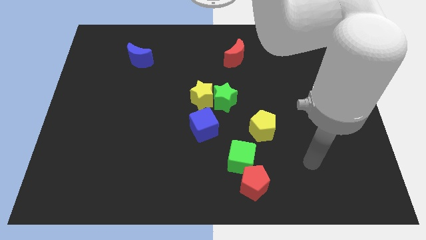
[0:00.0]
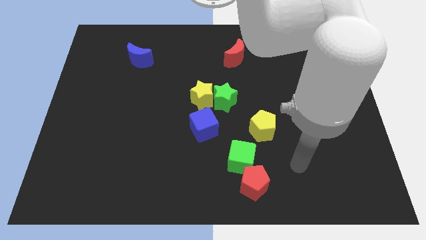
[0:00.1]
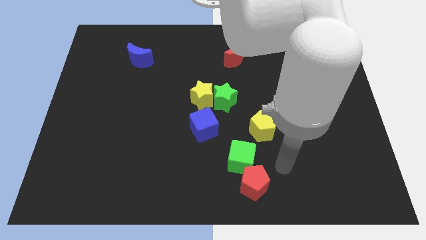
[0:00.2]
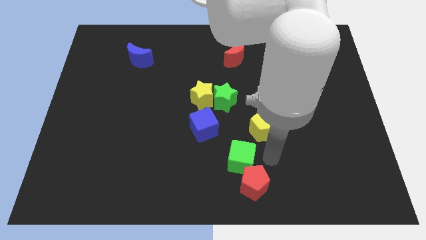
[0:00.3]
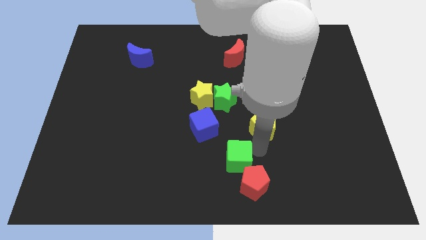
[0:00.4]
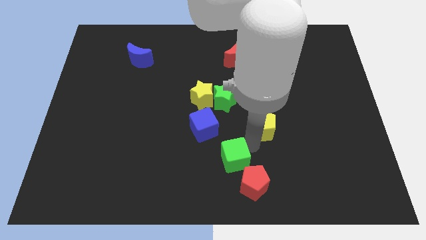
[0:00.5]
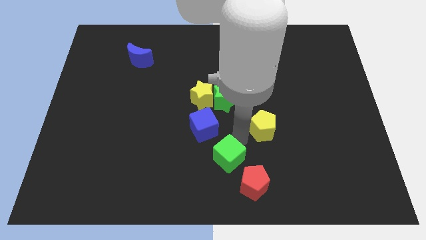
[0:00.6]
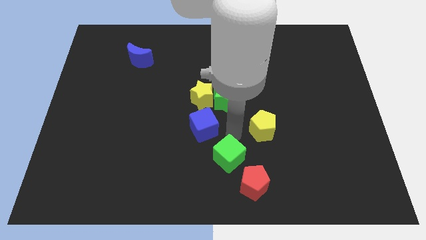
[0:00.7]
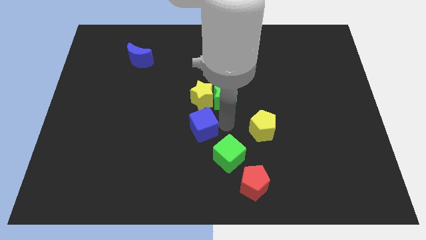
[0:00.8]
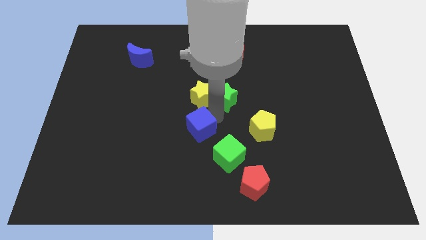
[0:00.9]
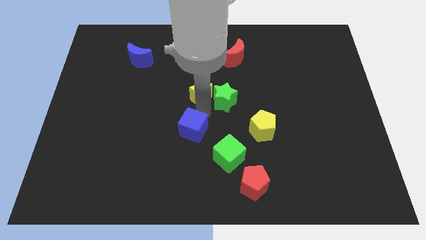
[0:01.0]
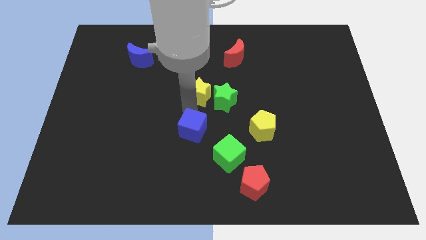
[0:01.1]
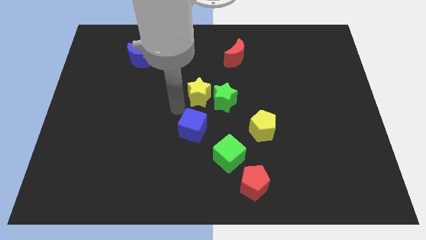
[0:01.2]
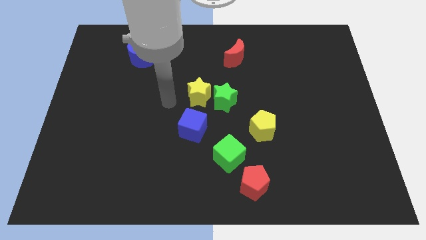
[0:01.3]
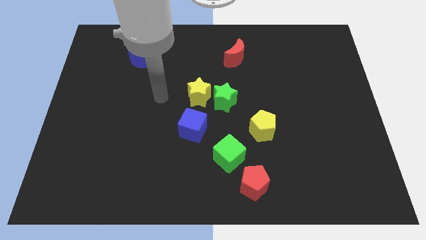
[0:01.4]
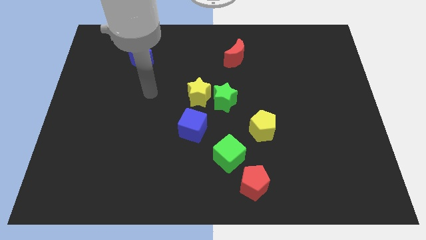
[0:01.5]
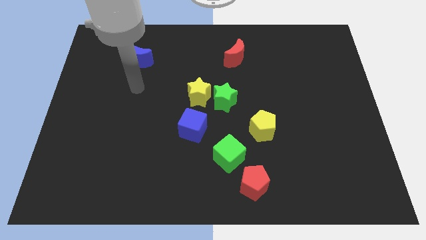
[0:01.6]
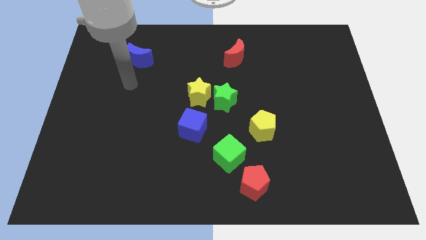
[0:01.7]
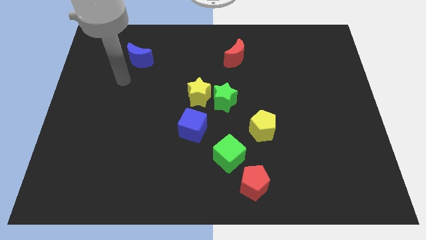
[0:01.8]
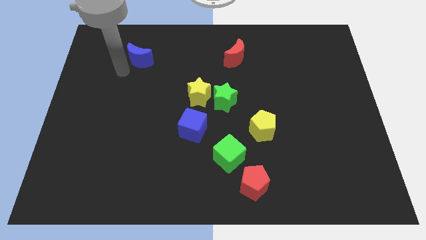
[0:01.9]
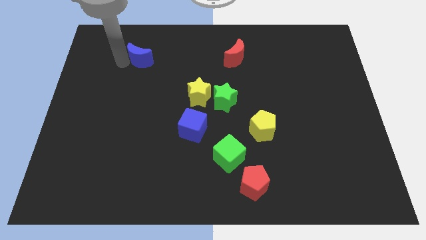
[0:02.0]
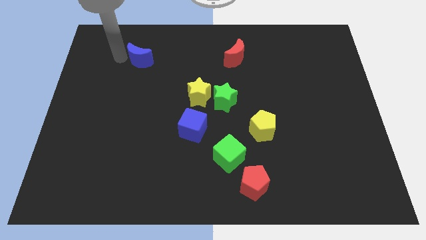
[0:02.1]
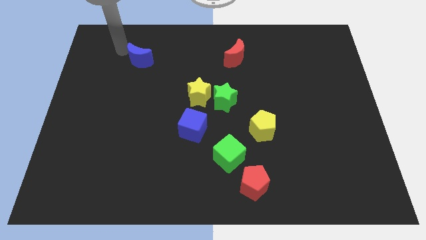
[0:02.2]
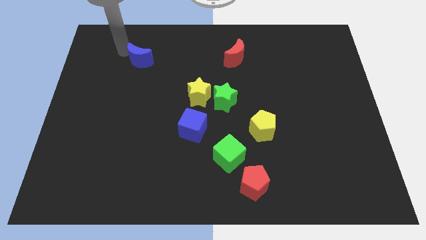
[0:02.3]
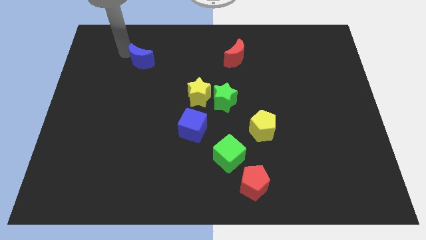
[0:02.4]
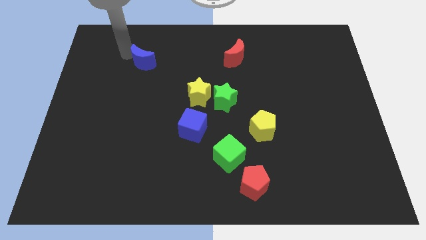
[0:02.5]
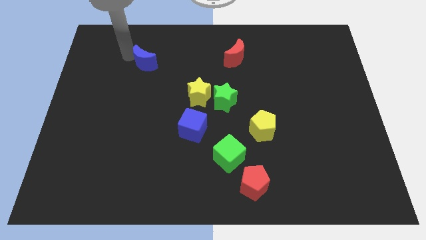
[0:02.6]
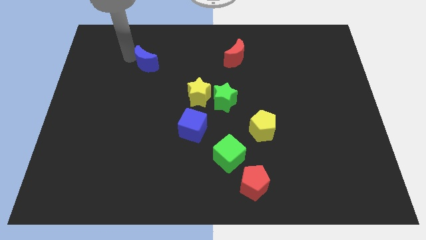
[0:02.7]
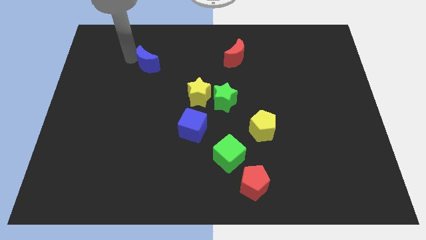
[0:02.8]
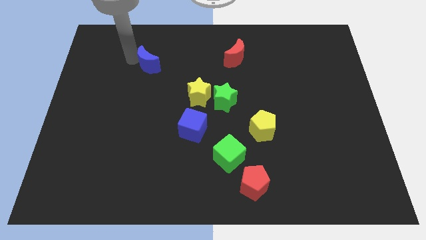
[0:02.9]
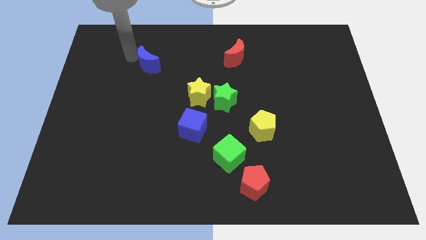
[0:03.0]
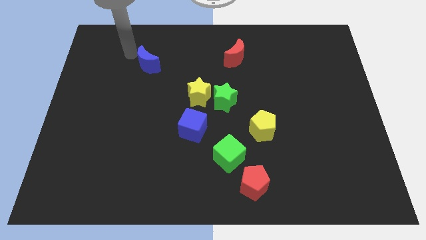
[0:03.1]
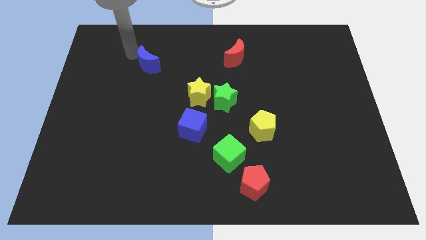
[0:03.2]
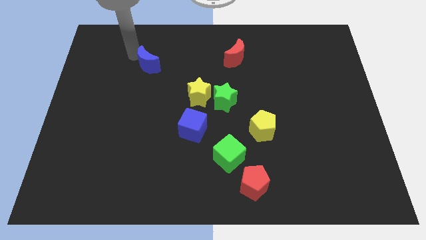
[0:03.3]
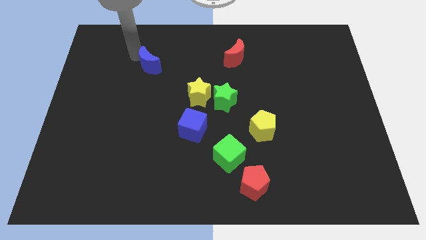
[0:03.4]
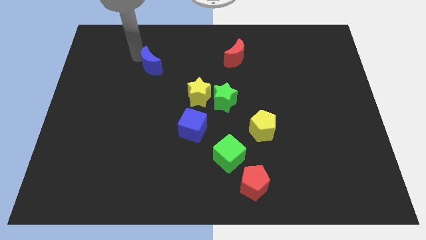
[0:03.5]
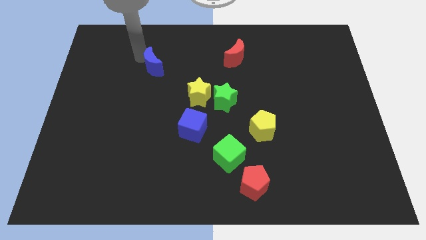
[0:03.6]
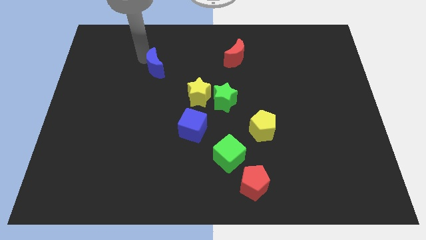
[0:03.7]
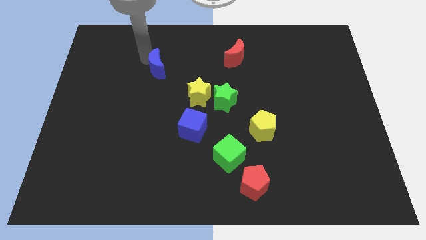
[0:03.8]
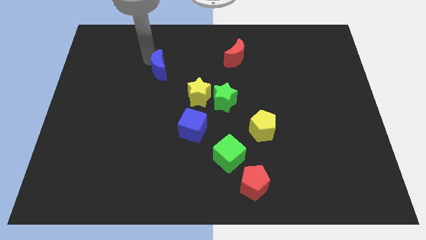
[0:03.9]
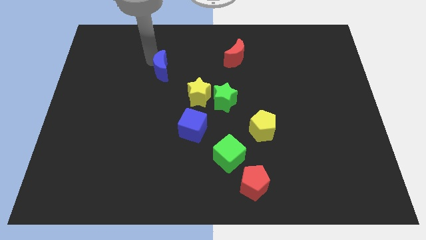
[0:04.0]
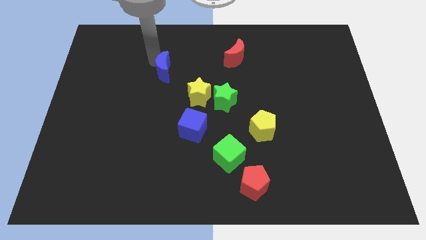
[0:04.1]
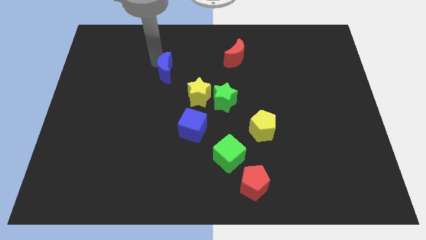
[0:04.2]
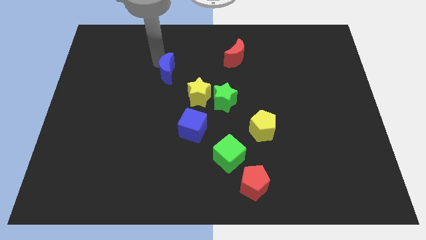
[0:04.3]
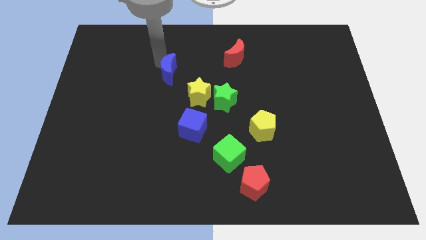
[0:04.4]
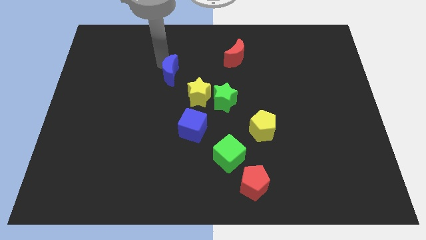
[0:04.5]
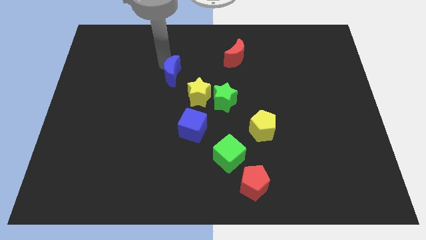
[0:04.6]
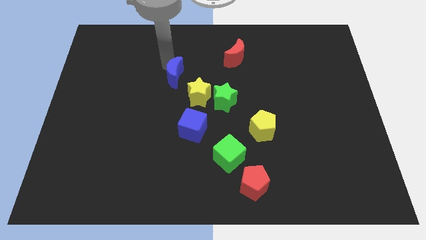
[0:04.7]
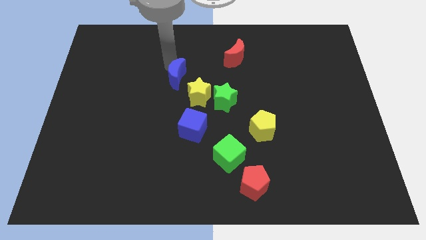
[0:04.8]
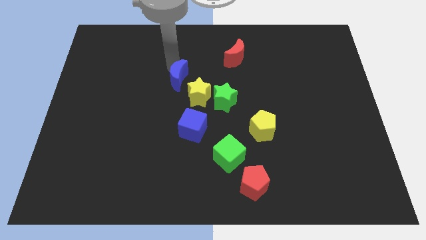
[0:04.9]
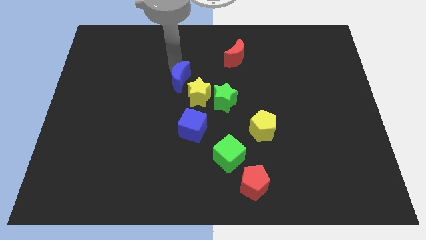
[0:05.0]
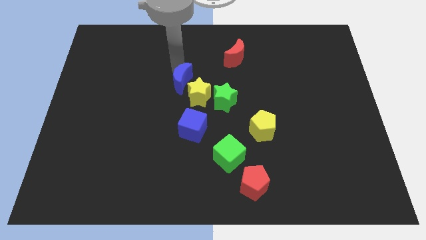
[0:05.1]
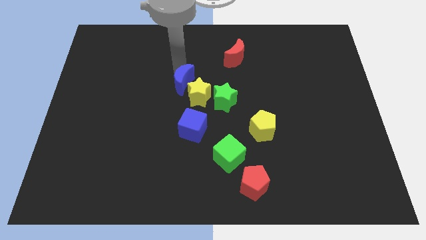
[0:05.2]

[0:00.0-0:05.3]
push the blue moon close to the yellow star

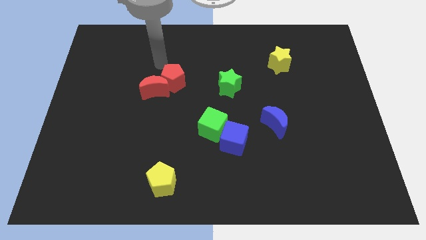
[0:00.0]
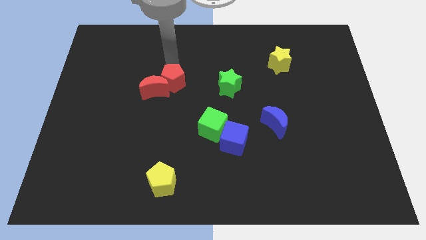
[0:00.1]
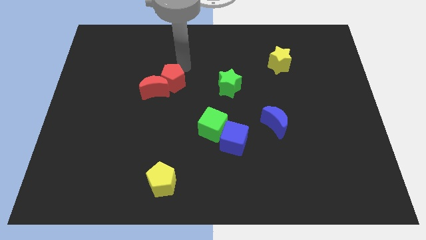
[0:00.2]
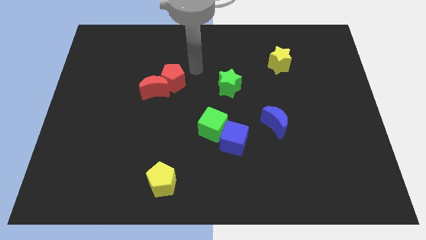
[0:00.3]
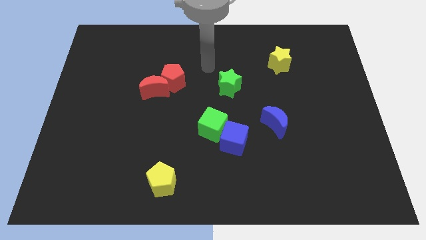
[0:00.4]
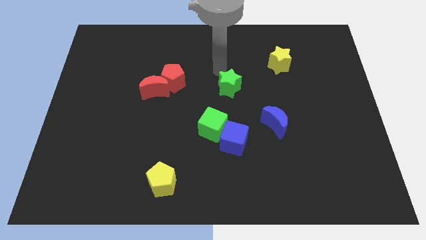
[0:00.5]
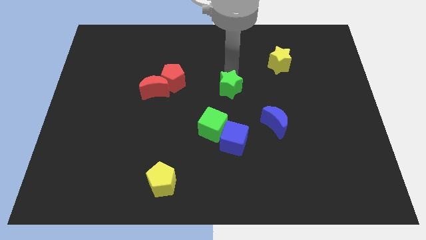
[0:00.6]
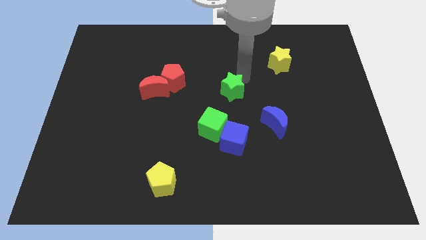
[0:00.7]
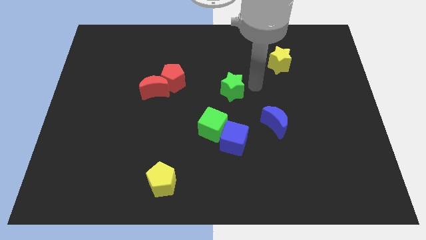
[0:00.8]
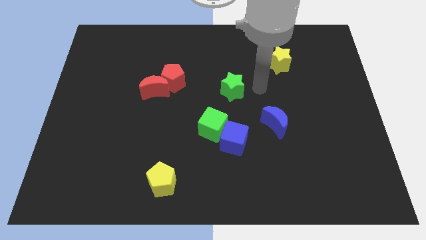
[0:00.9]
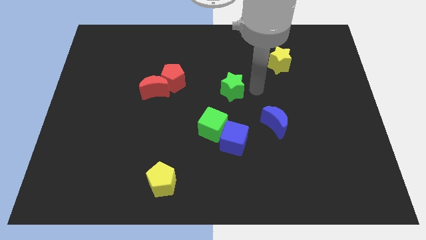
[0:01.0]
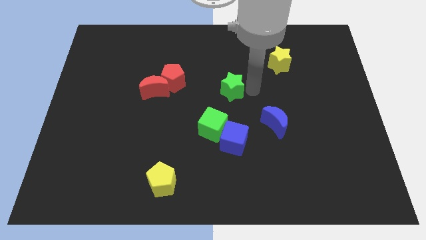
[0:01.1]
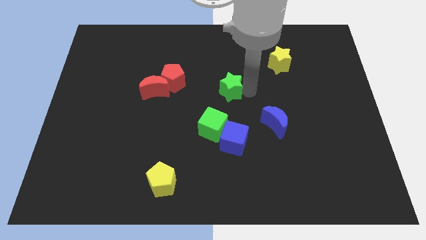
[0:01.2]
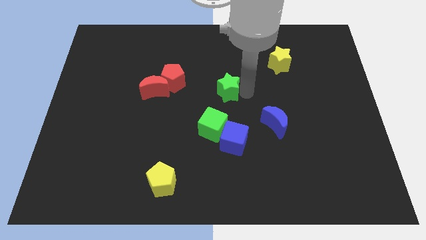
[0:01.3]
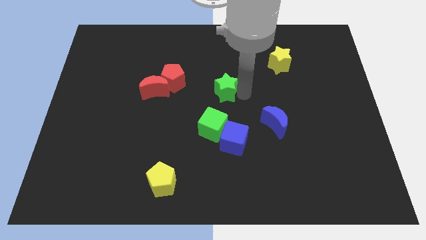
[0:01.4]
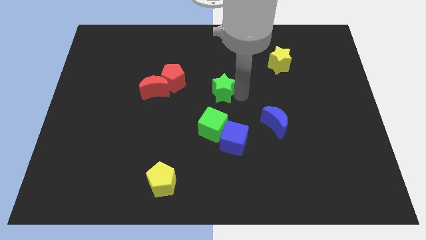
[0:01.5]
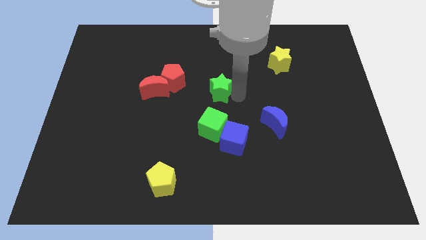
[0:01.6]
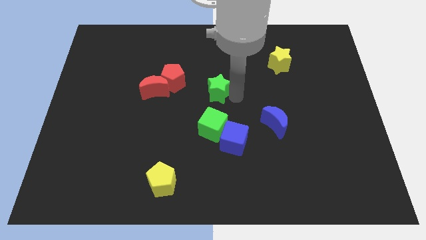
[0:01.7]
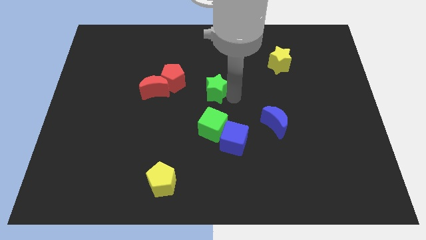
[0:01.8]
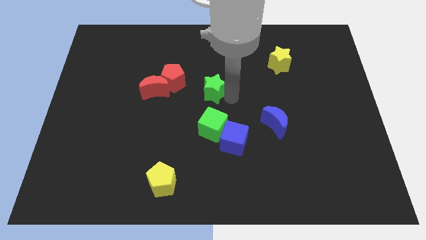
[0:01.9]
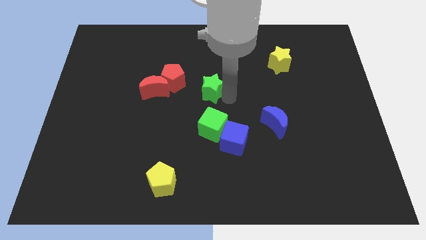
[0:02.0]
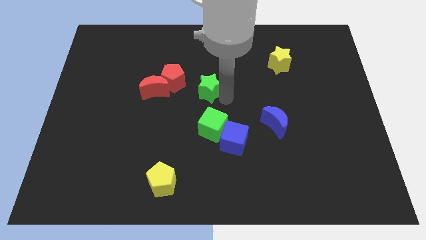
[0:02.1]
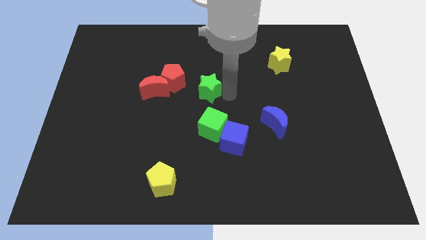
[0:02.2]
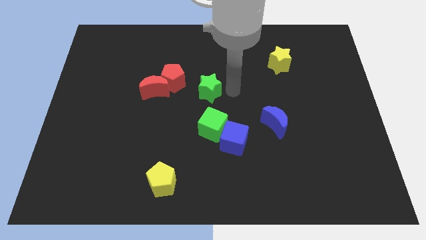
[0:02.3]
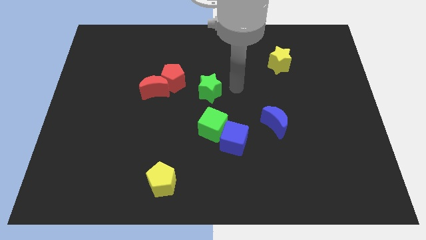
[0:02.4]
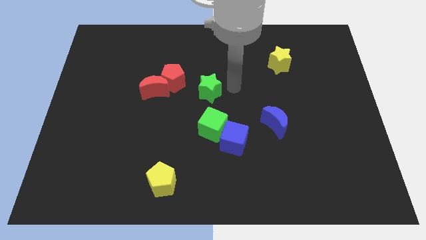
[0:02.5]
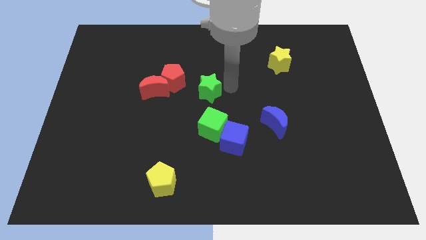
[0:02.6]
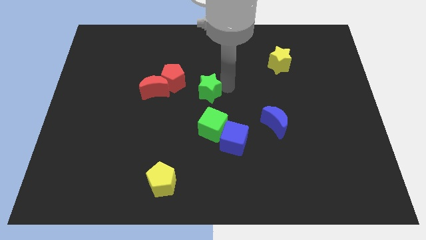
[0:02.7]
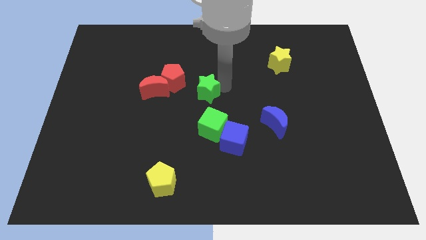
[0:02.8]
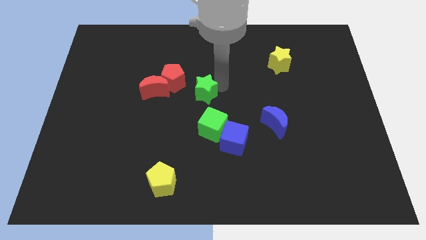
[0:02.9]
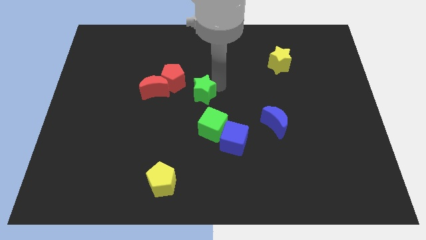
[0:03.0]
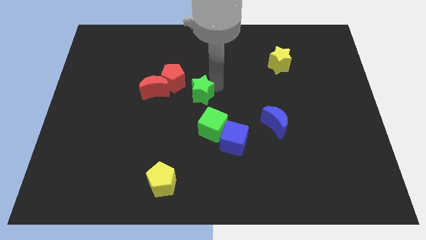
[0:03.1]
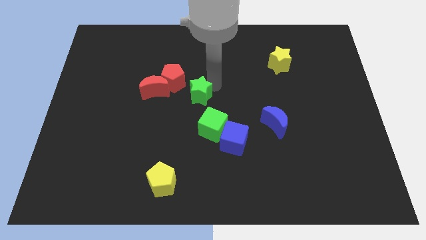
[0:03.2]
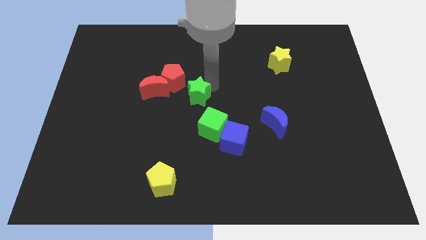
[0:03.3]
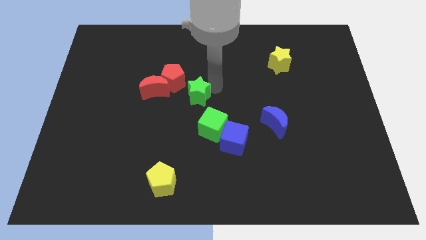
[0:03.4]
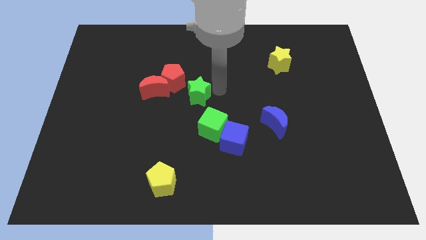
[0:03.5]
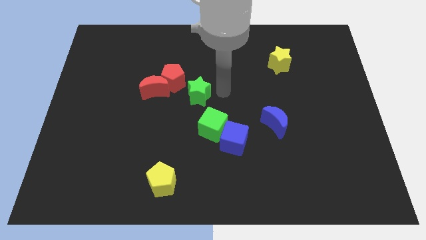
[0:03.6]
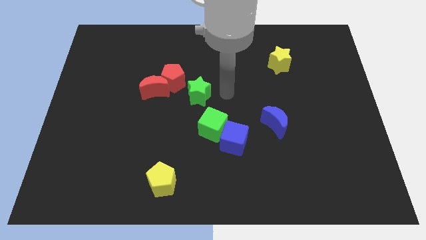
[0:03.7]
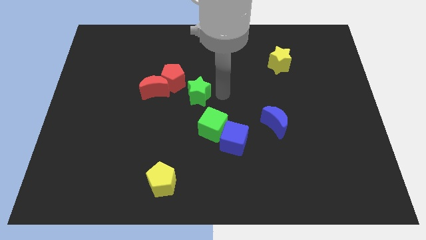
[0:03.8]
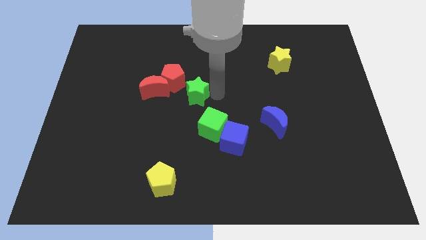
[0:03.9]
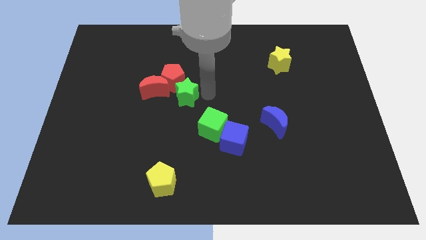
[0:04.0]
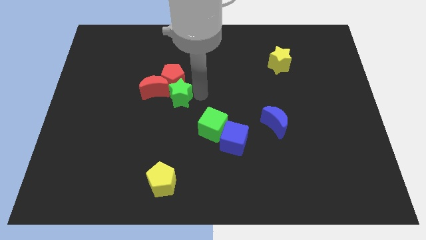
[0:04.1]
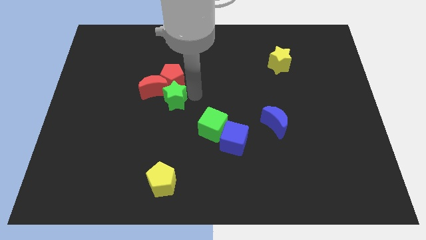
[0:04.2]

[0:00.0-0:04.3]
move the green star next to the red moon
